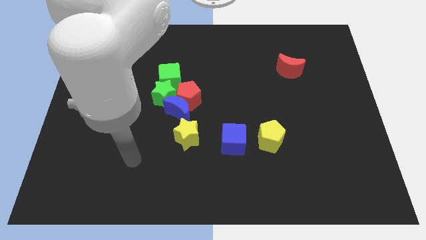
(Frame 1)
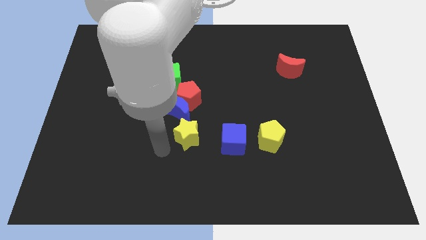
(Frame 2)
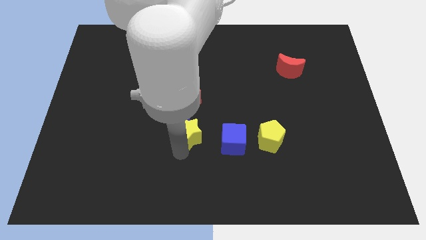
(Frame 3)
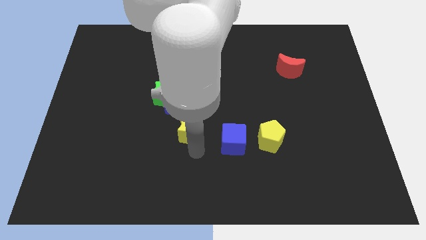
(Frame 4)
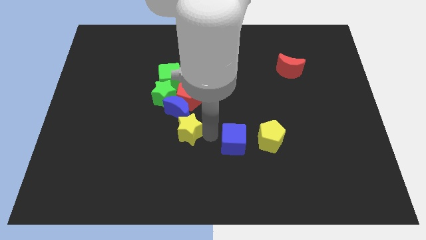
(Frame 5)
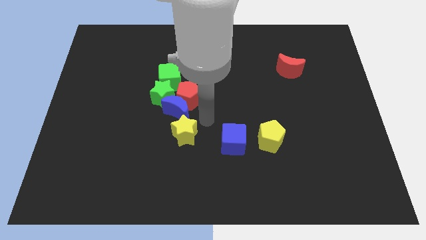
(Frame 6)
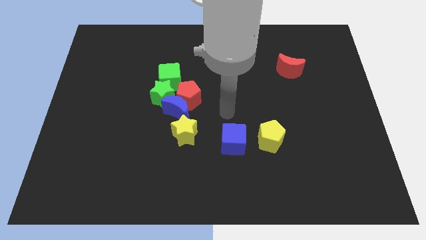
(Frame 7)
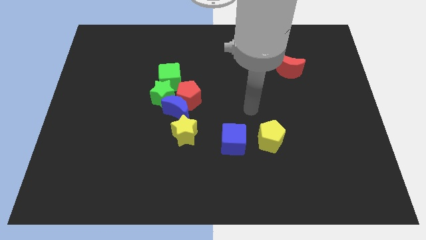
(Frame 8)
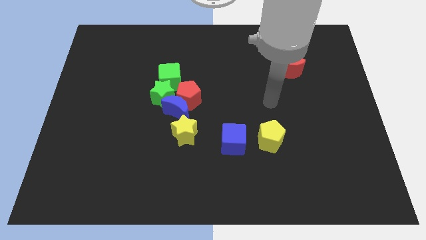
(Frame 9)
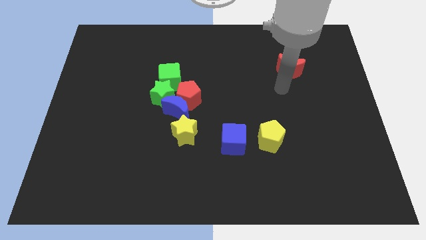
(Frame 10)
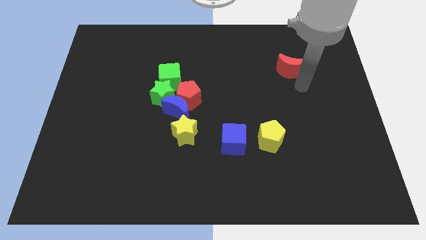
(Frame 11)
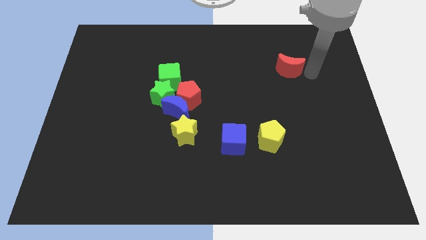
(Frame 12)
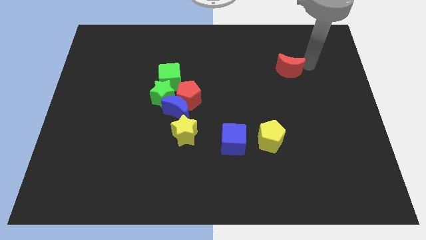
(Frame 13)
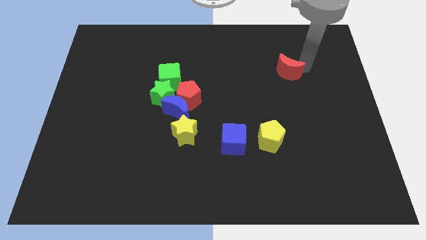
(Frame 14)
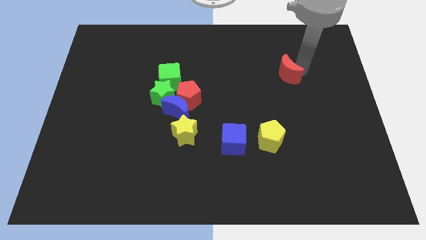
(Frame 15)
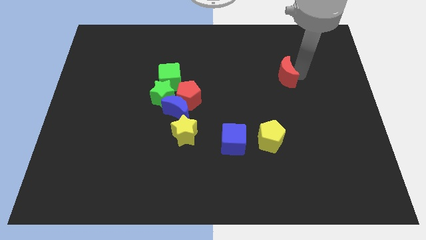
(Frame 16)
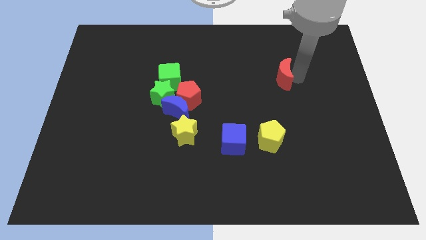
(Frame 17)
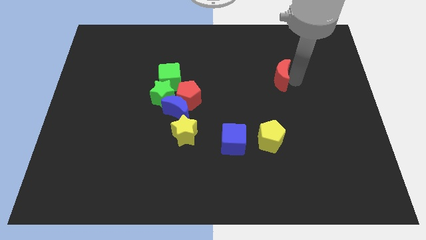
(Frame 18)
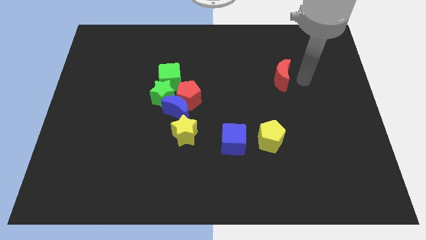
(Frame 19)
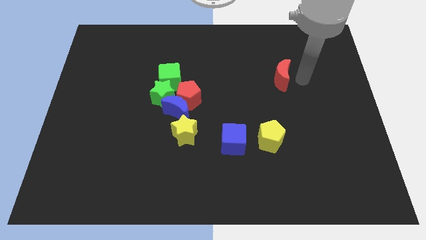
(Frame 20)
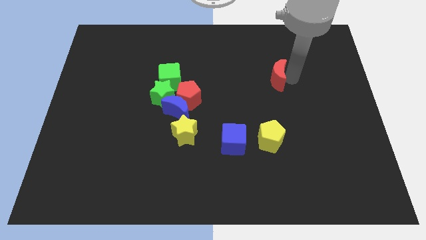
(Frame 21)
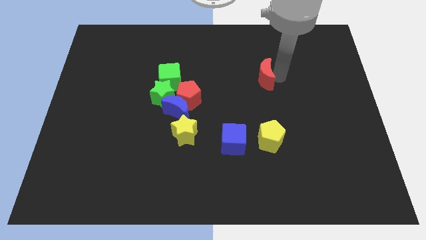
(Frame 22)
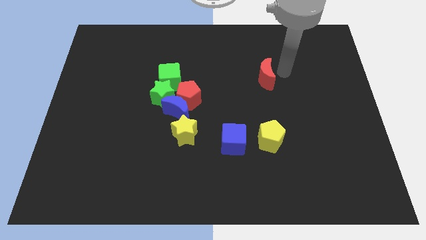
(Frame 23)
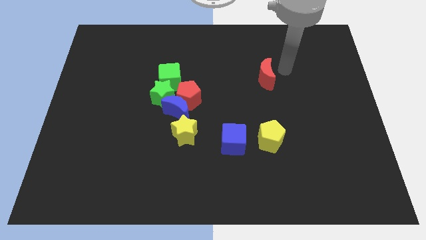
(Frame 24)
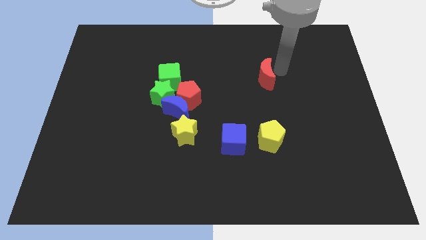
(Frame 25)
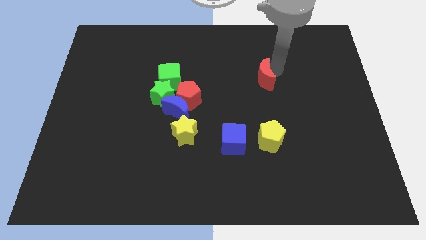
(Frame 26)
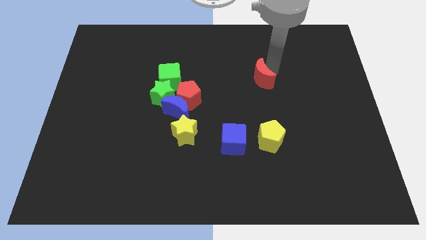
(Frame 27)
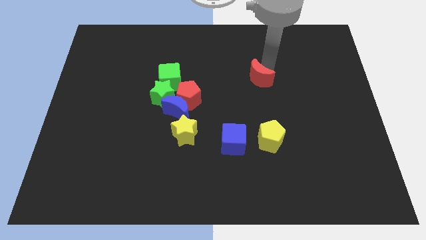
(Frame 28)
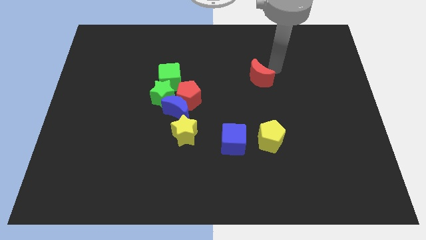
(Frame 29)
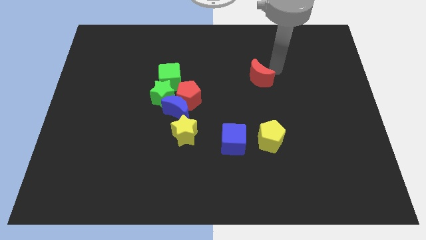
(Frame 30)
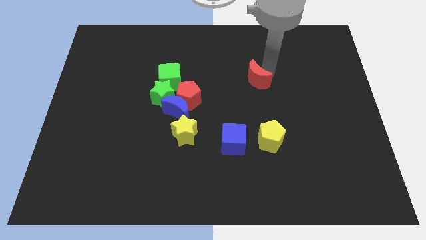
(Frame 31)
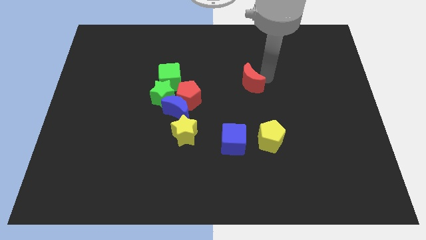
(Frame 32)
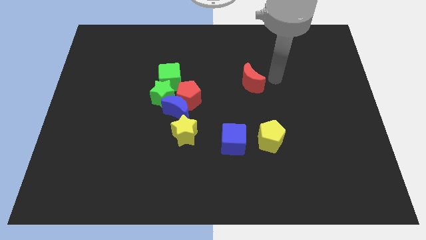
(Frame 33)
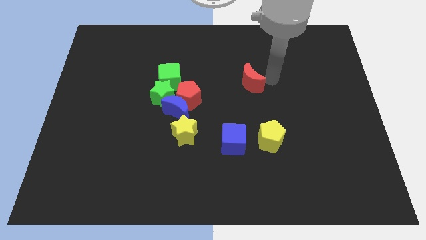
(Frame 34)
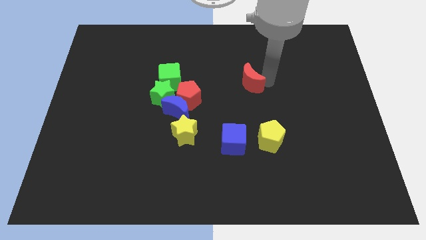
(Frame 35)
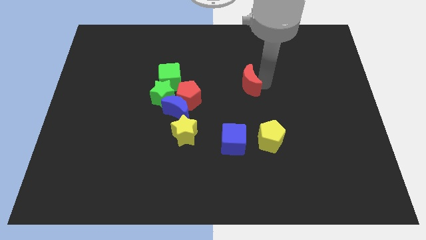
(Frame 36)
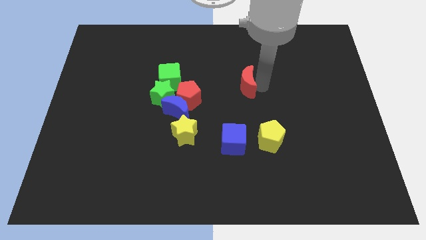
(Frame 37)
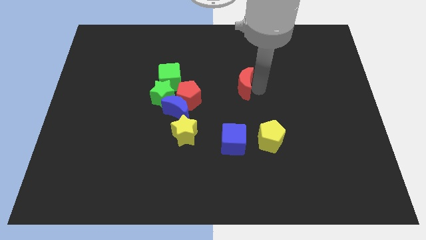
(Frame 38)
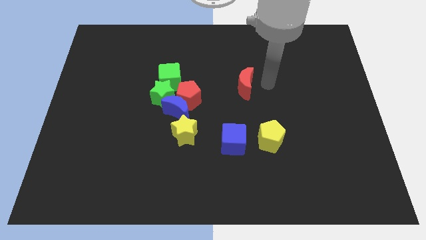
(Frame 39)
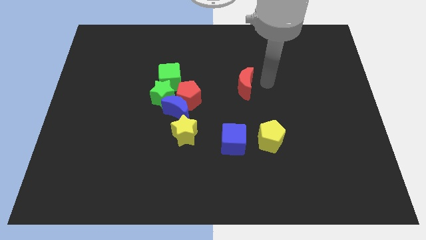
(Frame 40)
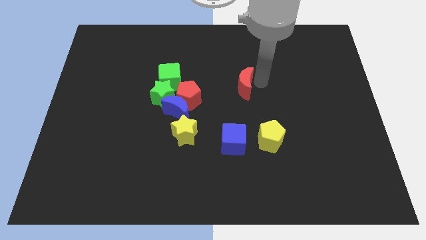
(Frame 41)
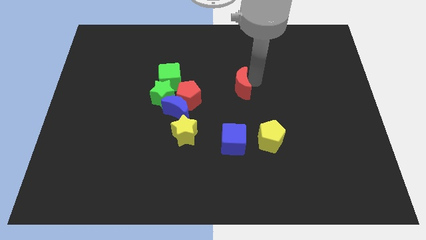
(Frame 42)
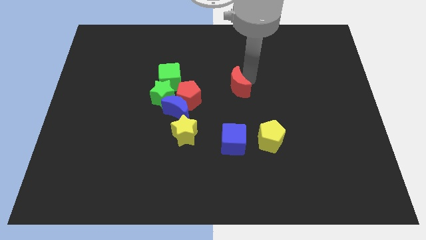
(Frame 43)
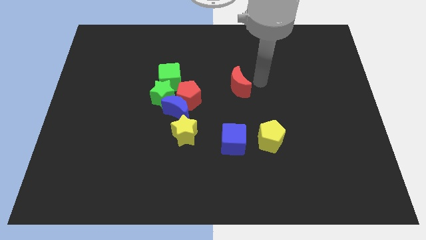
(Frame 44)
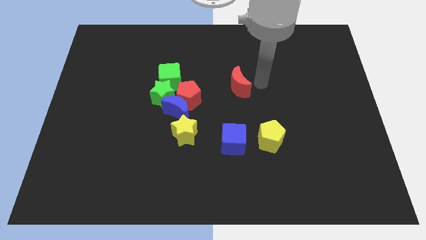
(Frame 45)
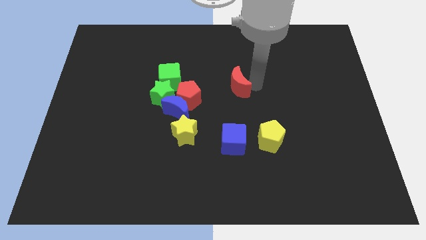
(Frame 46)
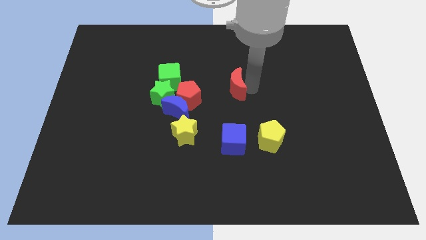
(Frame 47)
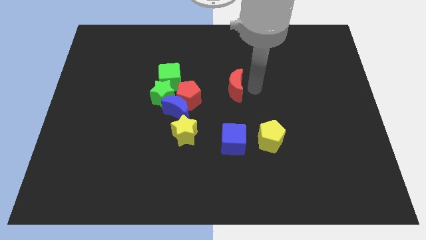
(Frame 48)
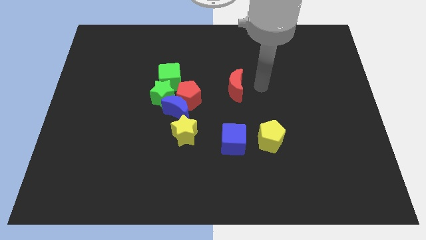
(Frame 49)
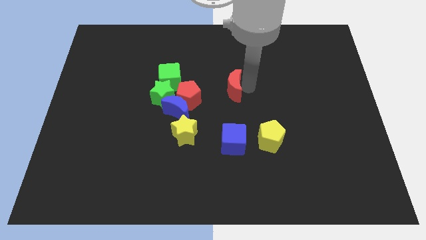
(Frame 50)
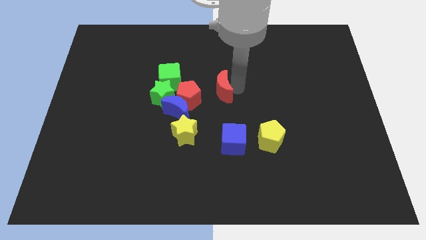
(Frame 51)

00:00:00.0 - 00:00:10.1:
put the red moon to the top right of the blue moon

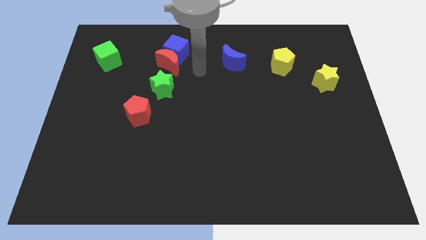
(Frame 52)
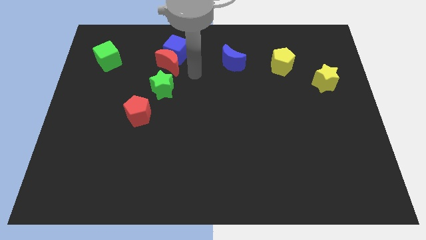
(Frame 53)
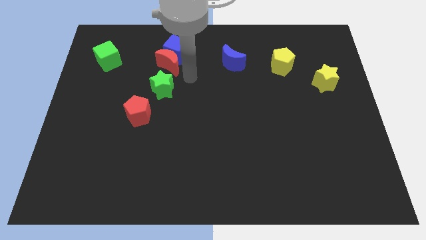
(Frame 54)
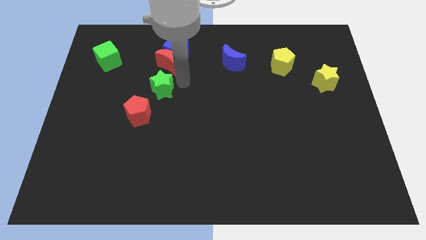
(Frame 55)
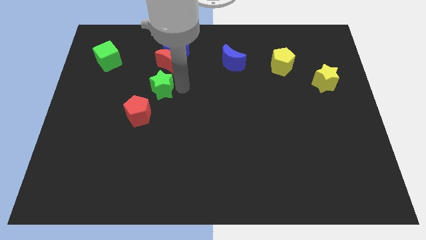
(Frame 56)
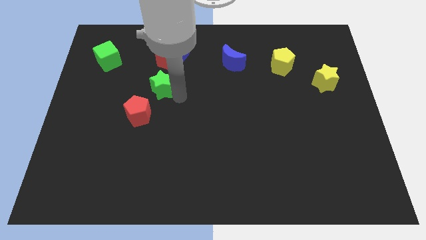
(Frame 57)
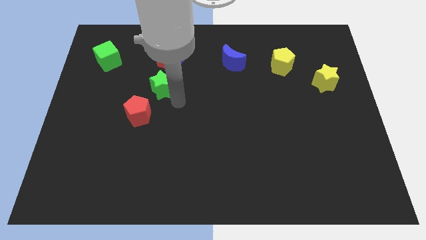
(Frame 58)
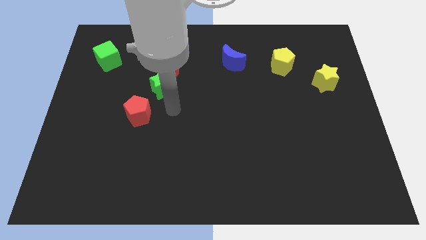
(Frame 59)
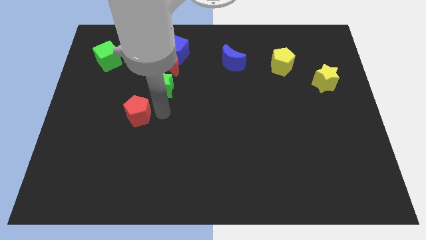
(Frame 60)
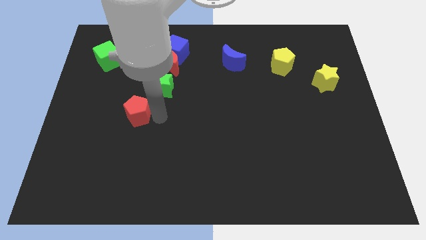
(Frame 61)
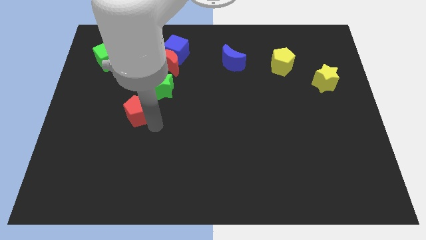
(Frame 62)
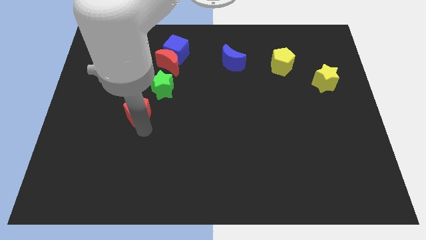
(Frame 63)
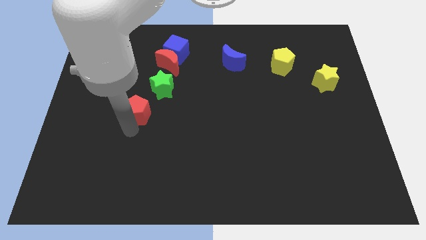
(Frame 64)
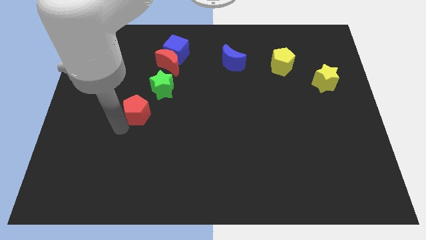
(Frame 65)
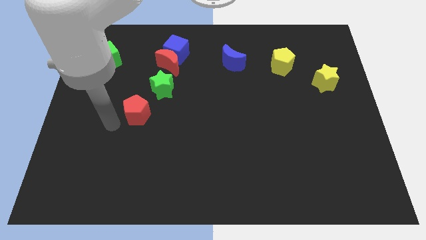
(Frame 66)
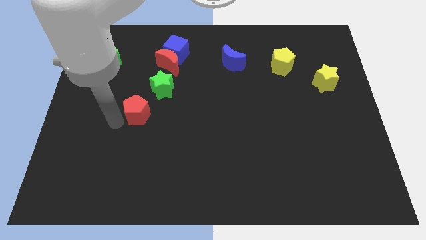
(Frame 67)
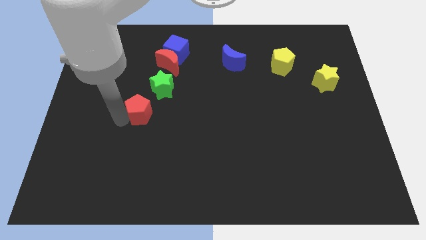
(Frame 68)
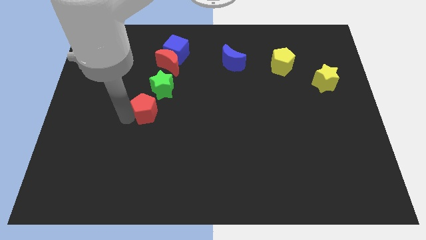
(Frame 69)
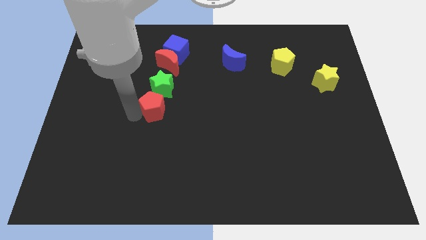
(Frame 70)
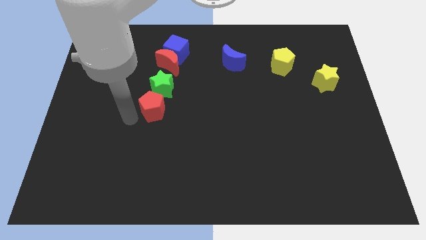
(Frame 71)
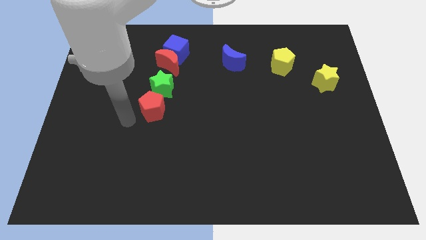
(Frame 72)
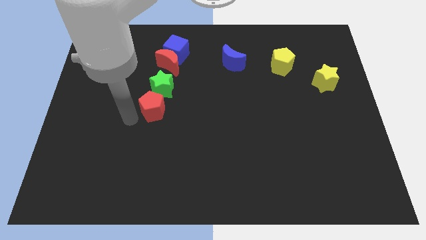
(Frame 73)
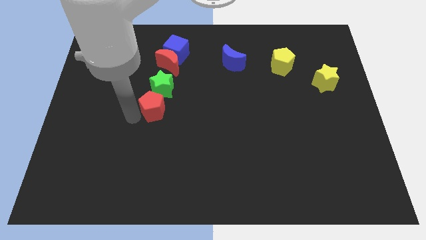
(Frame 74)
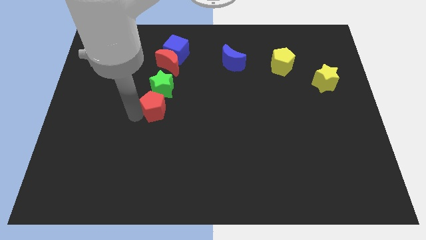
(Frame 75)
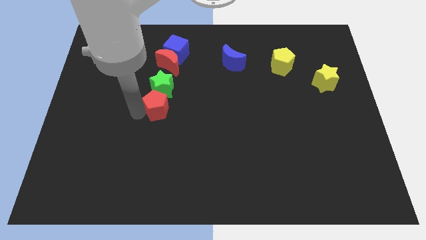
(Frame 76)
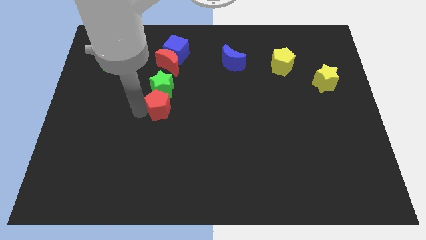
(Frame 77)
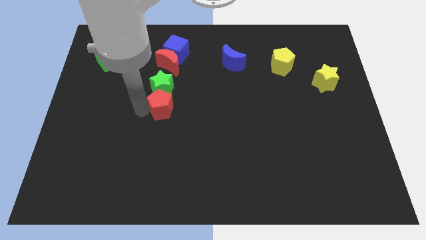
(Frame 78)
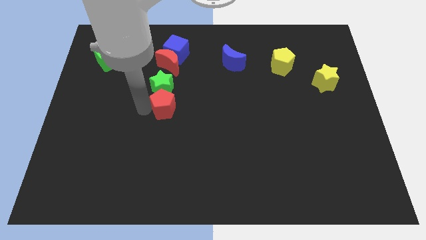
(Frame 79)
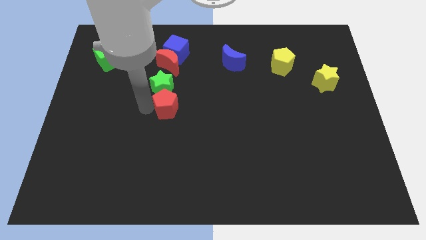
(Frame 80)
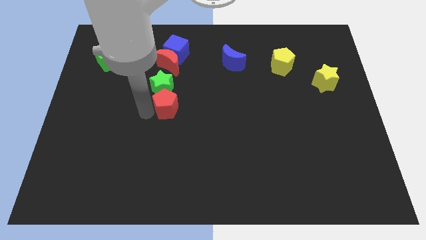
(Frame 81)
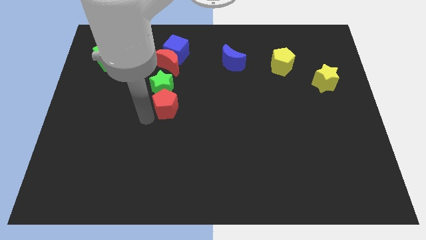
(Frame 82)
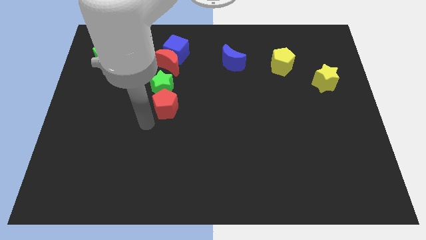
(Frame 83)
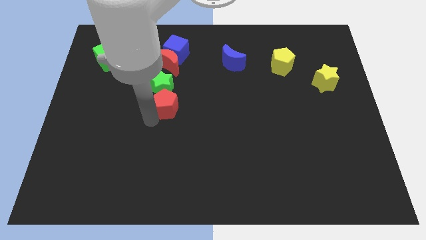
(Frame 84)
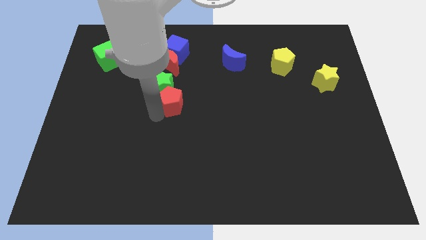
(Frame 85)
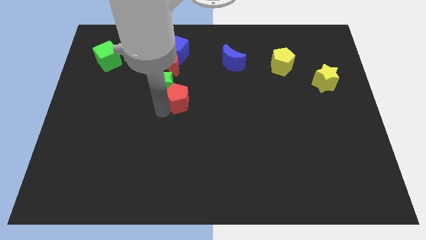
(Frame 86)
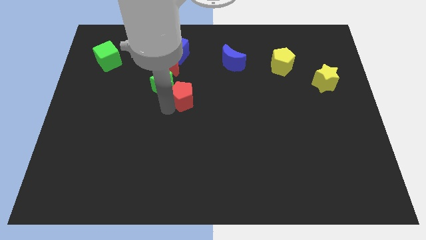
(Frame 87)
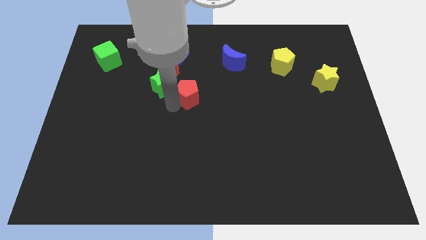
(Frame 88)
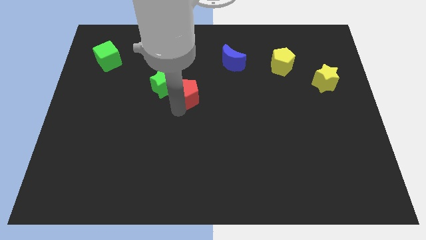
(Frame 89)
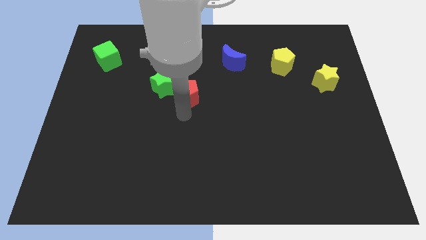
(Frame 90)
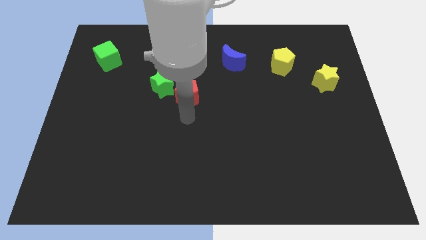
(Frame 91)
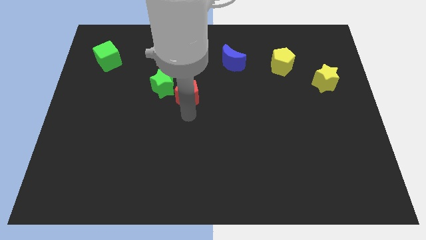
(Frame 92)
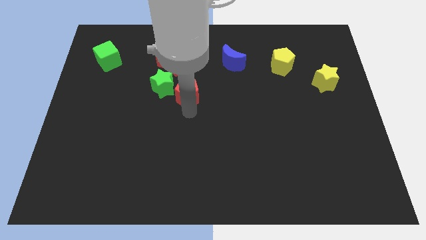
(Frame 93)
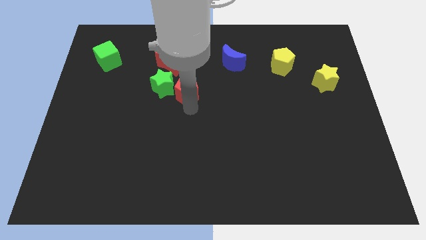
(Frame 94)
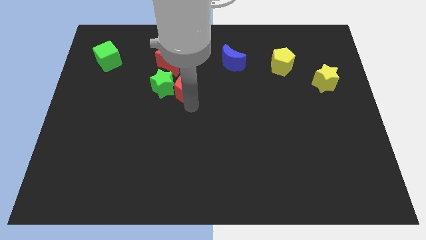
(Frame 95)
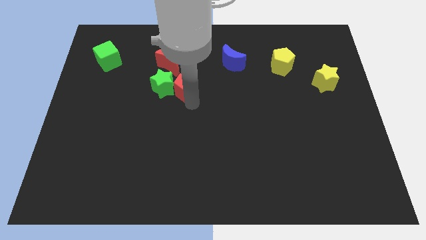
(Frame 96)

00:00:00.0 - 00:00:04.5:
move the red pentagon to the top right of the green star
